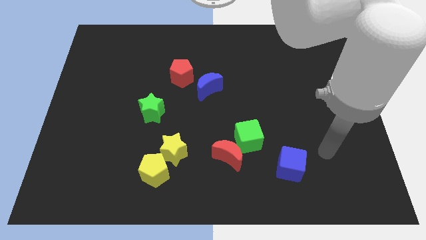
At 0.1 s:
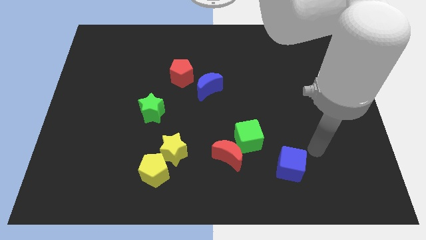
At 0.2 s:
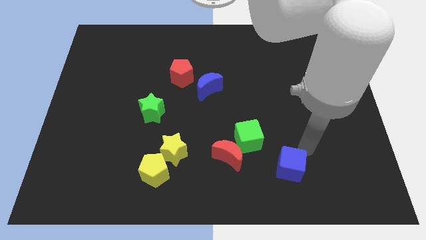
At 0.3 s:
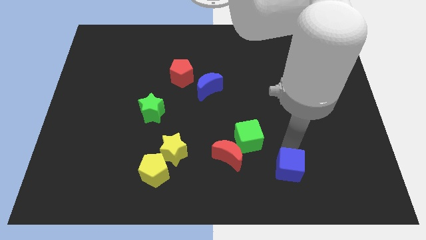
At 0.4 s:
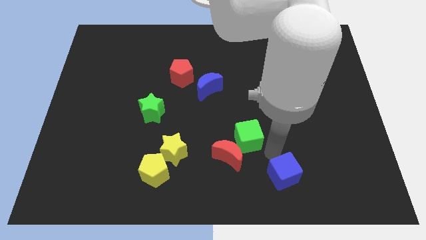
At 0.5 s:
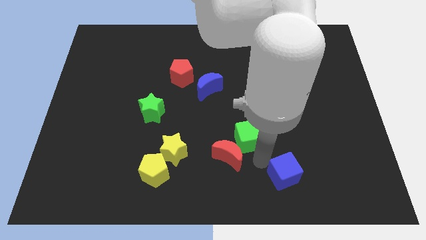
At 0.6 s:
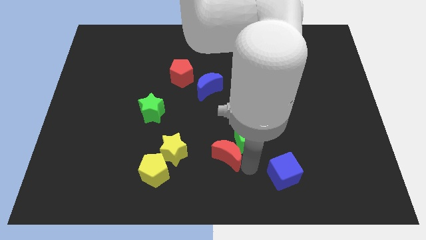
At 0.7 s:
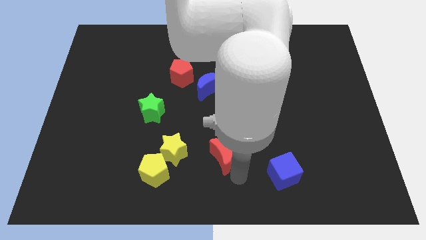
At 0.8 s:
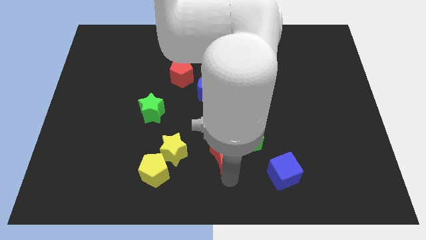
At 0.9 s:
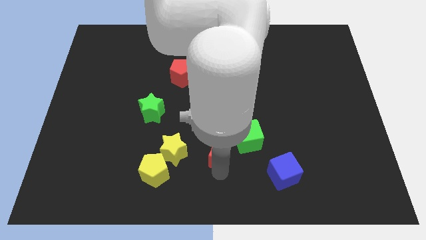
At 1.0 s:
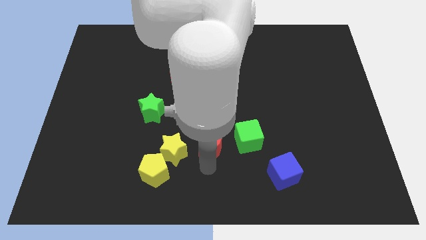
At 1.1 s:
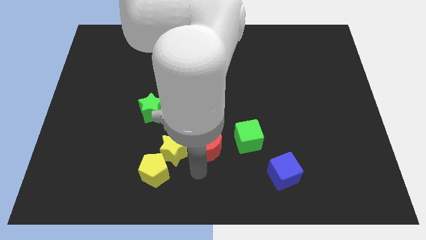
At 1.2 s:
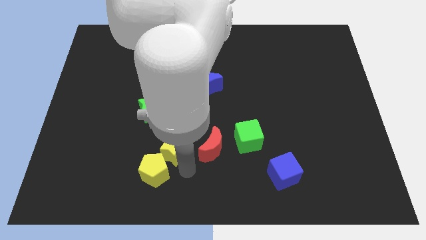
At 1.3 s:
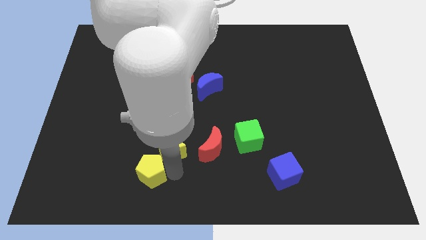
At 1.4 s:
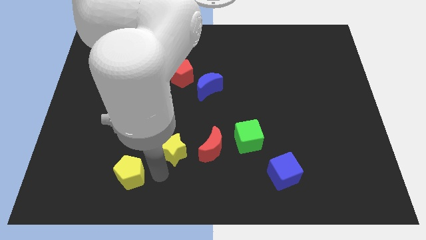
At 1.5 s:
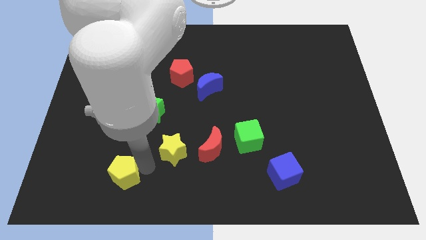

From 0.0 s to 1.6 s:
pull the yellow star apart from the yellow pentagon

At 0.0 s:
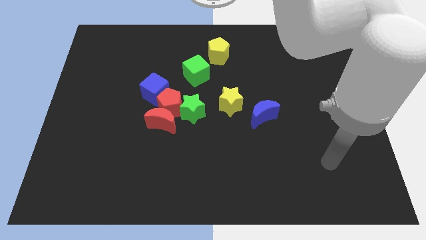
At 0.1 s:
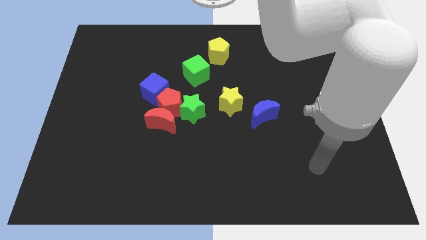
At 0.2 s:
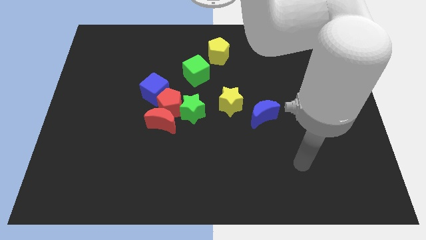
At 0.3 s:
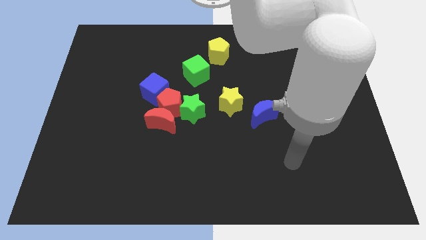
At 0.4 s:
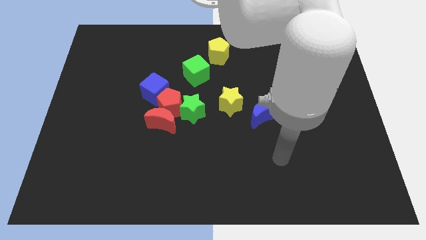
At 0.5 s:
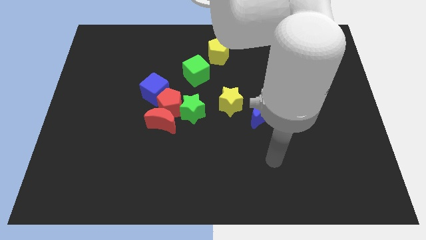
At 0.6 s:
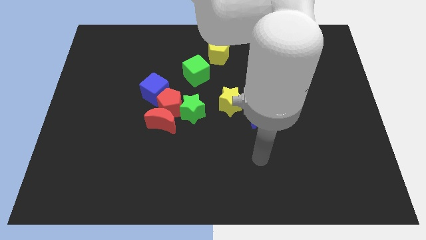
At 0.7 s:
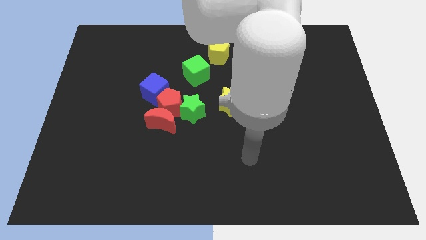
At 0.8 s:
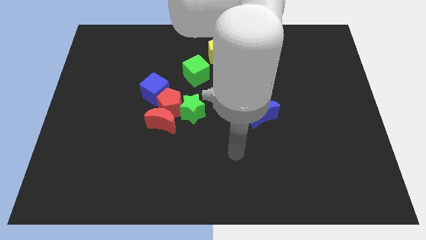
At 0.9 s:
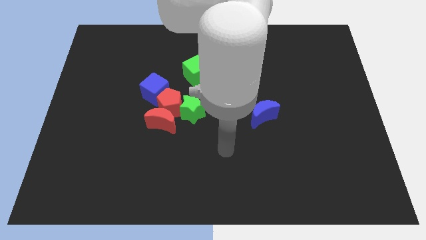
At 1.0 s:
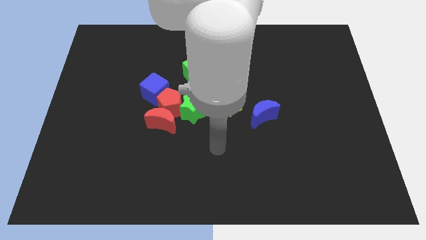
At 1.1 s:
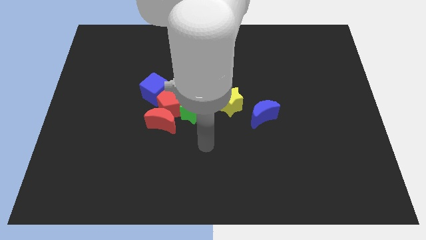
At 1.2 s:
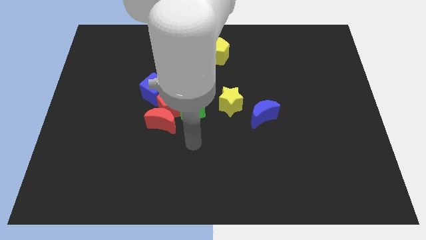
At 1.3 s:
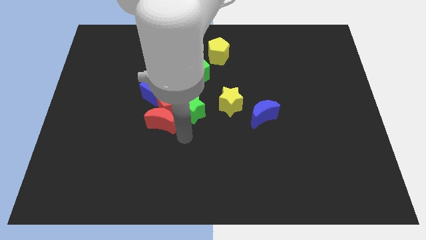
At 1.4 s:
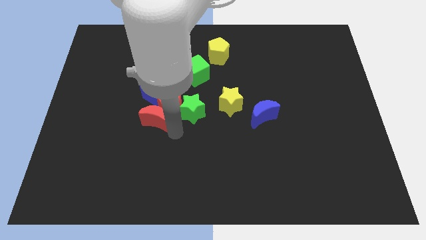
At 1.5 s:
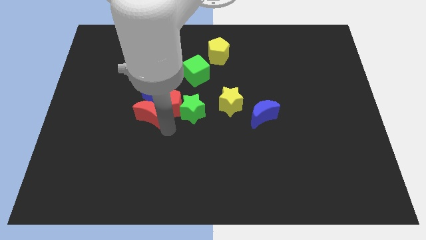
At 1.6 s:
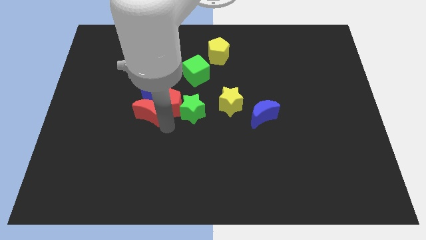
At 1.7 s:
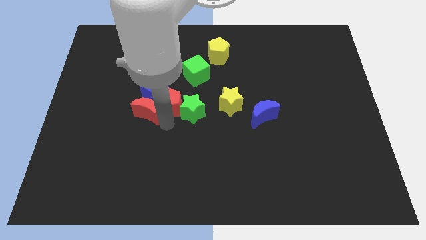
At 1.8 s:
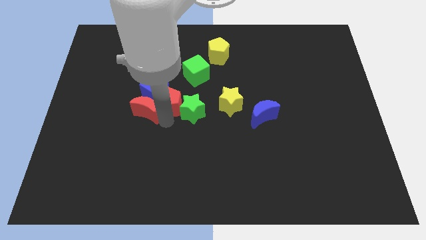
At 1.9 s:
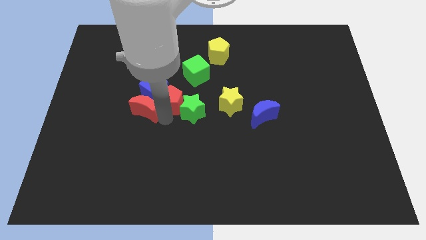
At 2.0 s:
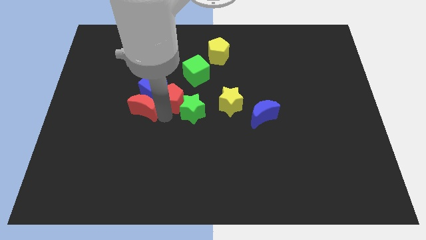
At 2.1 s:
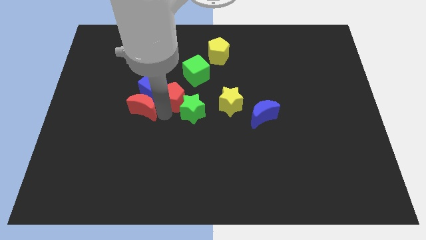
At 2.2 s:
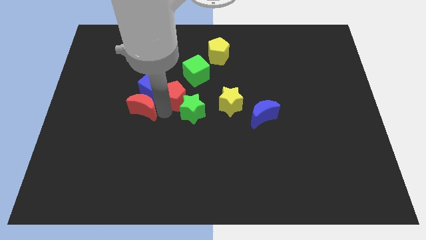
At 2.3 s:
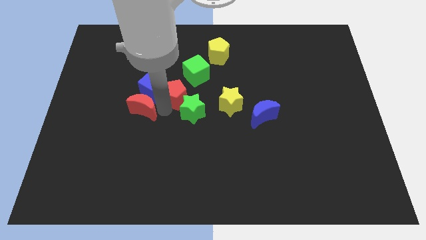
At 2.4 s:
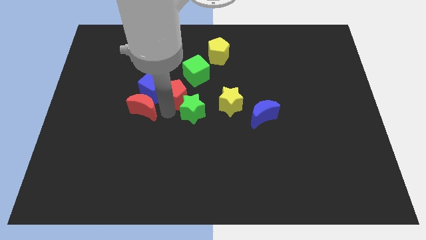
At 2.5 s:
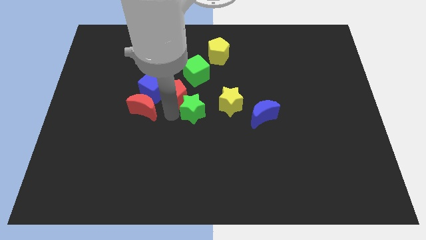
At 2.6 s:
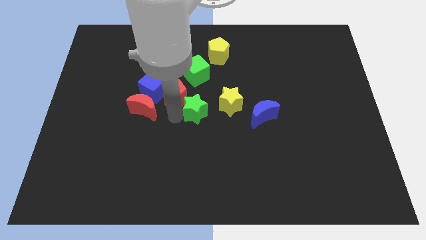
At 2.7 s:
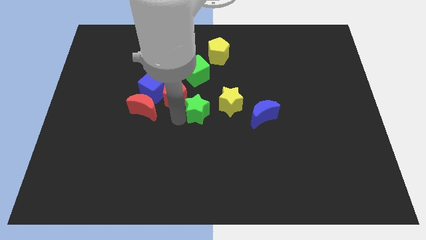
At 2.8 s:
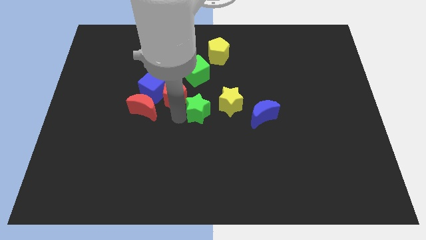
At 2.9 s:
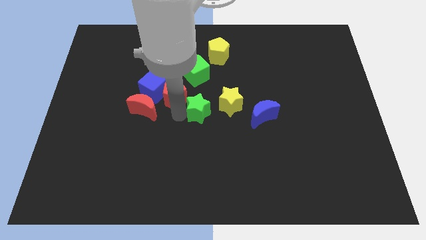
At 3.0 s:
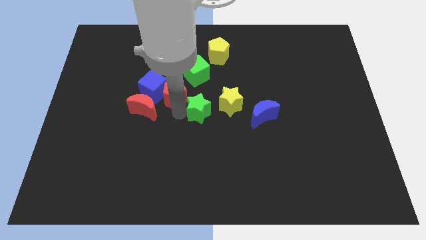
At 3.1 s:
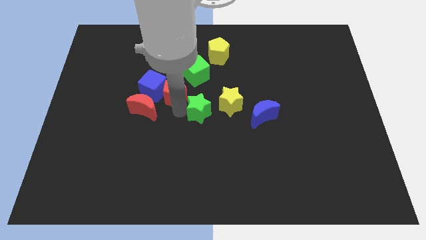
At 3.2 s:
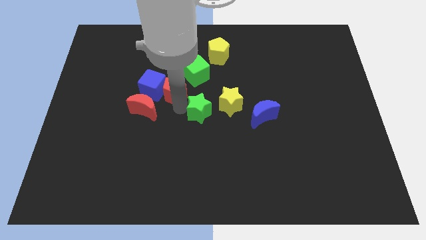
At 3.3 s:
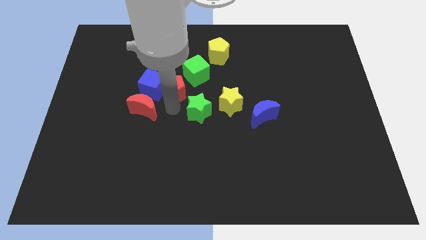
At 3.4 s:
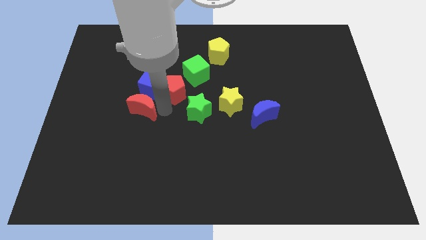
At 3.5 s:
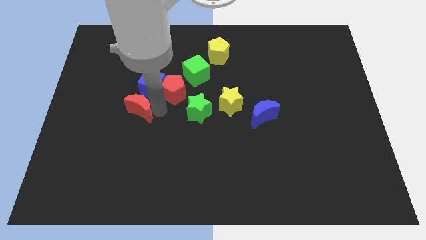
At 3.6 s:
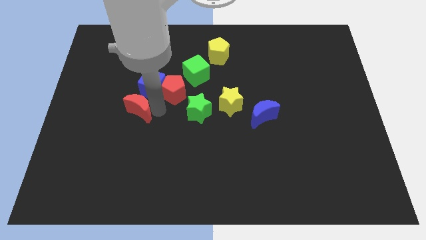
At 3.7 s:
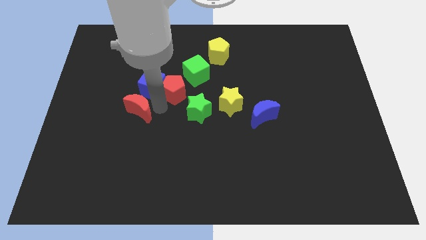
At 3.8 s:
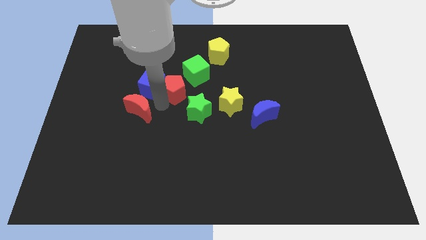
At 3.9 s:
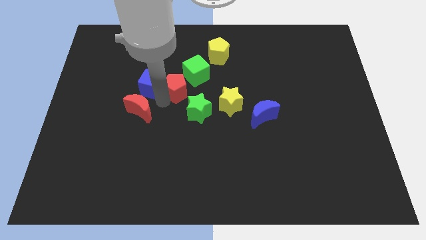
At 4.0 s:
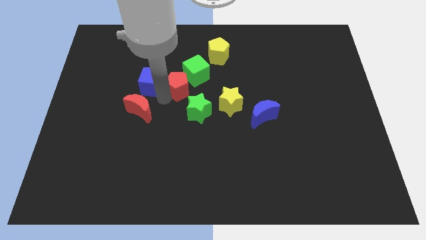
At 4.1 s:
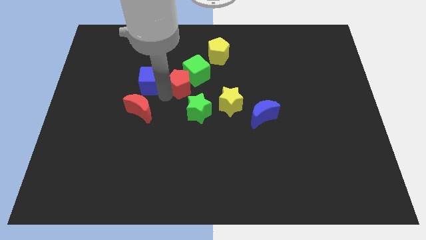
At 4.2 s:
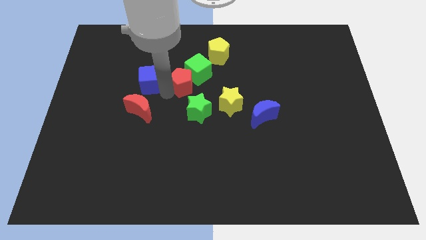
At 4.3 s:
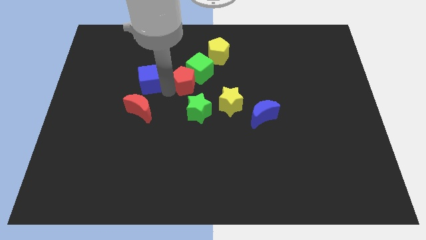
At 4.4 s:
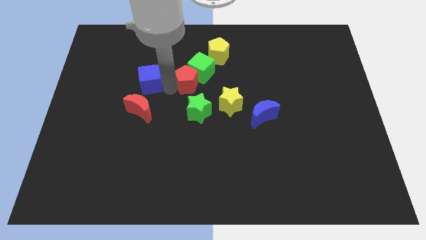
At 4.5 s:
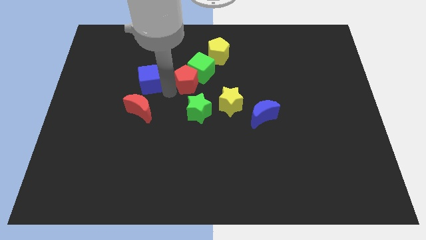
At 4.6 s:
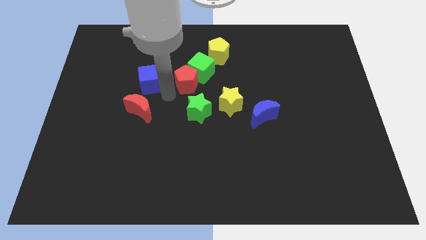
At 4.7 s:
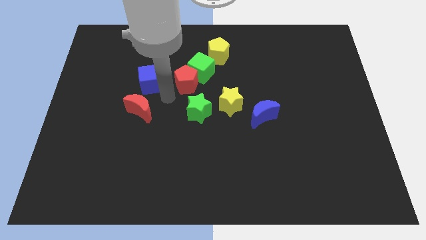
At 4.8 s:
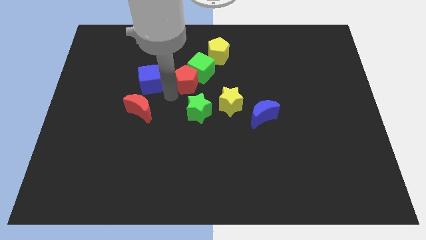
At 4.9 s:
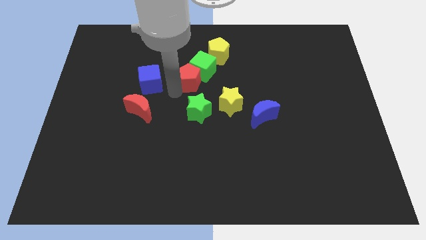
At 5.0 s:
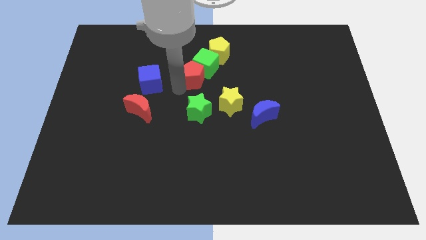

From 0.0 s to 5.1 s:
move the red pentagon away from the clump

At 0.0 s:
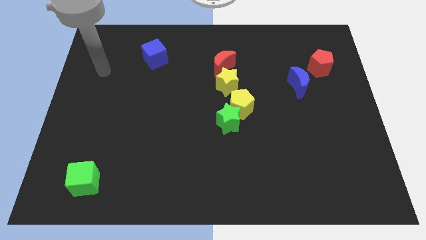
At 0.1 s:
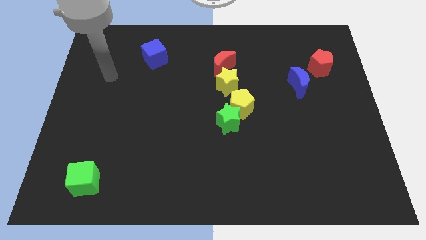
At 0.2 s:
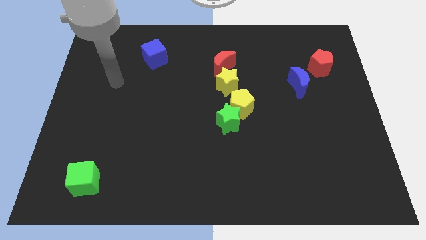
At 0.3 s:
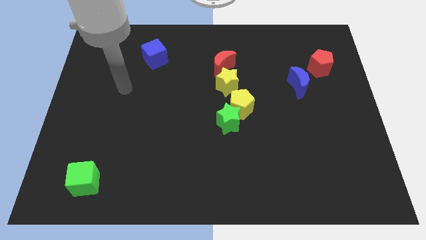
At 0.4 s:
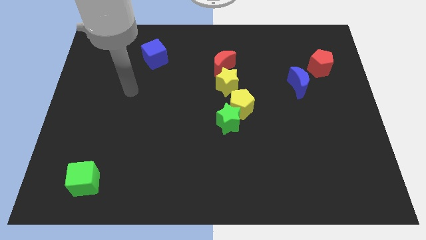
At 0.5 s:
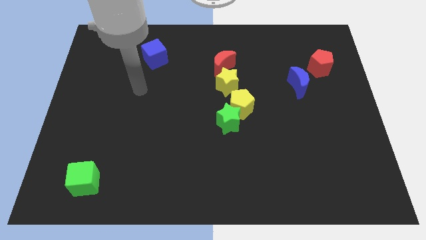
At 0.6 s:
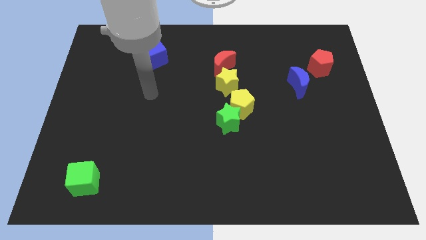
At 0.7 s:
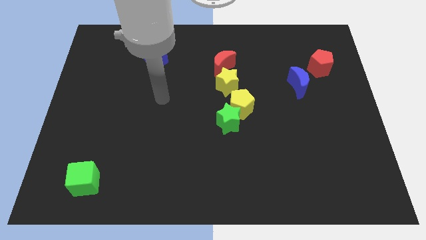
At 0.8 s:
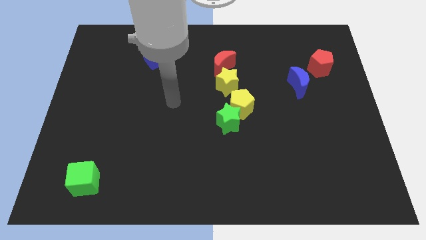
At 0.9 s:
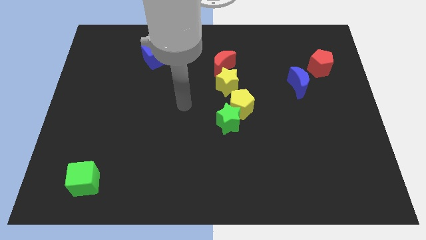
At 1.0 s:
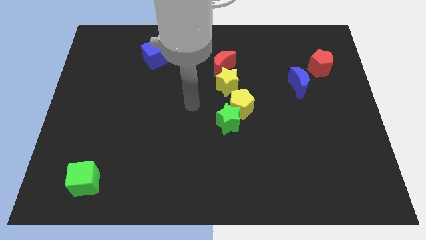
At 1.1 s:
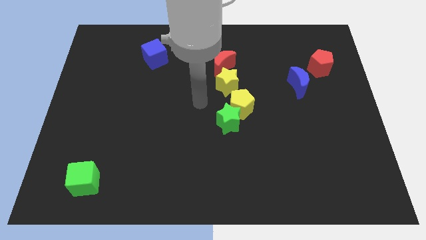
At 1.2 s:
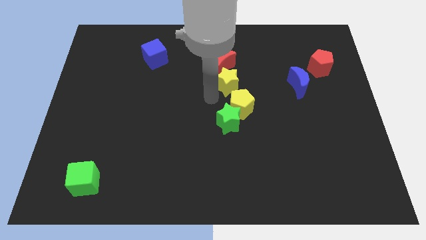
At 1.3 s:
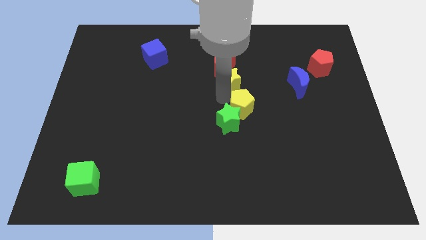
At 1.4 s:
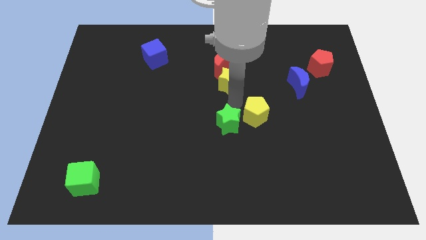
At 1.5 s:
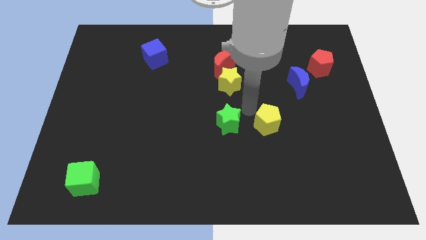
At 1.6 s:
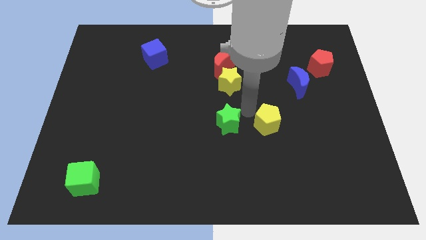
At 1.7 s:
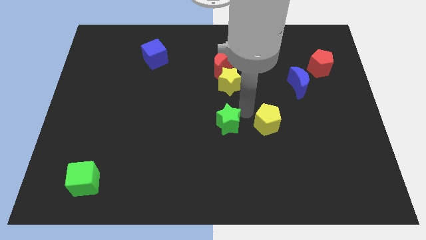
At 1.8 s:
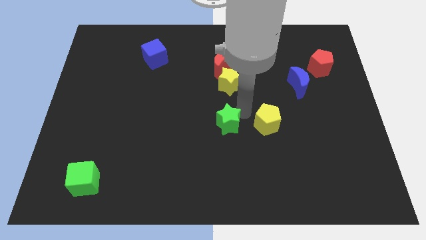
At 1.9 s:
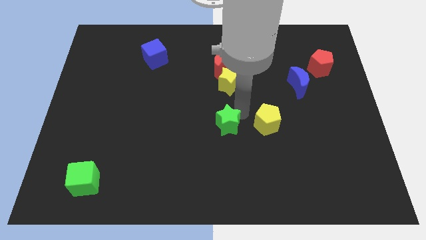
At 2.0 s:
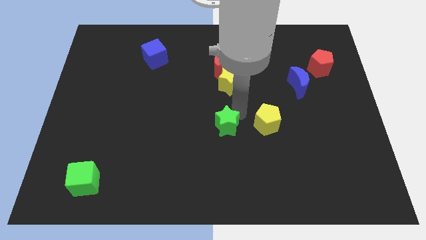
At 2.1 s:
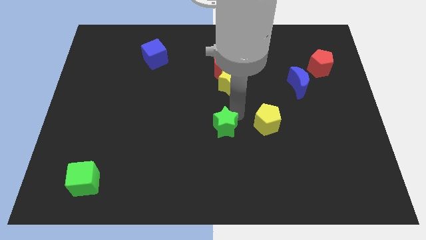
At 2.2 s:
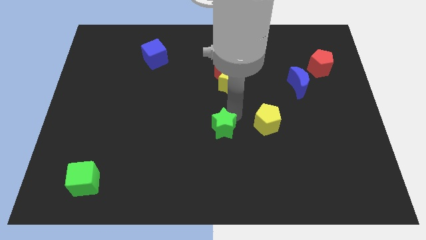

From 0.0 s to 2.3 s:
separate the green star from the yellow pentagon

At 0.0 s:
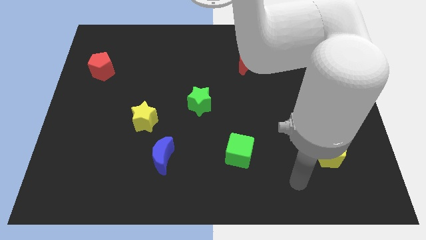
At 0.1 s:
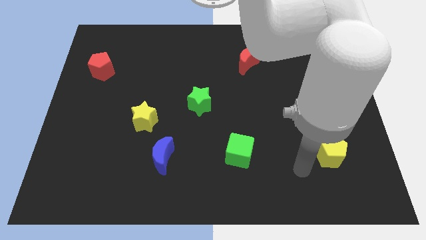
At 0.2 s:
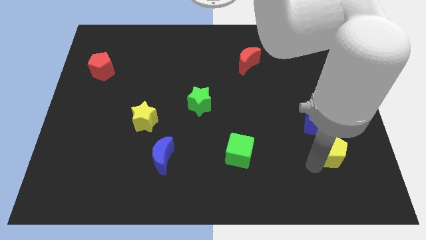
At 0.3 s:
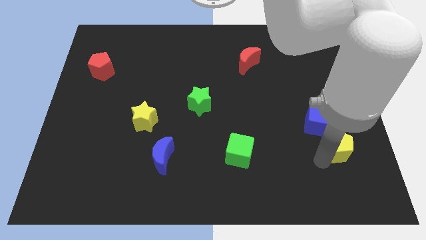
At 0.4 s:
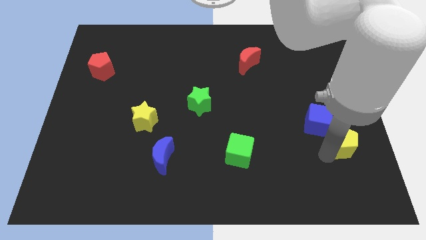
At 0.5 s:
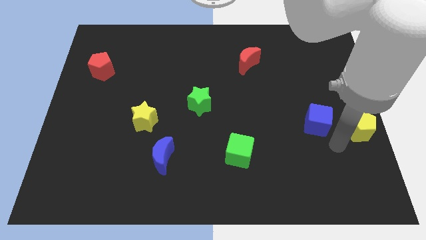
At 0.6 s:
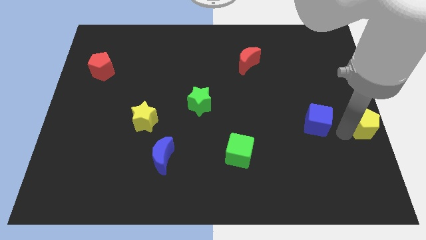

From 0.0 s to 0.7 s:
separate the blue cube from the yellow pentagon
